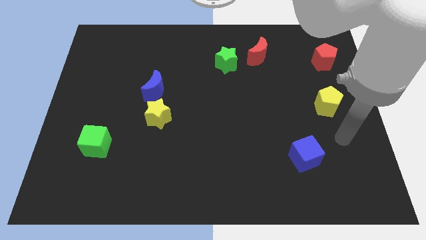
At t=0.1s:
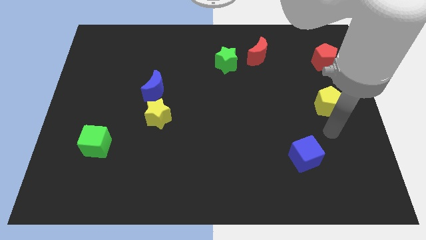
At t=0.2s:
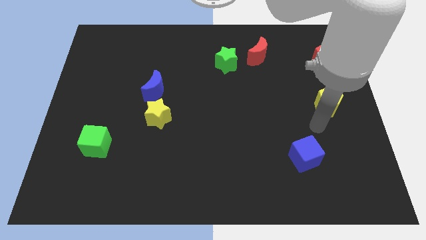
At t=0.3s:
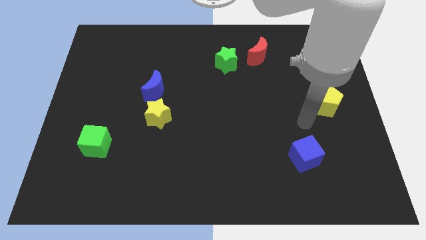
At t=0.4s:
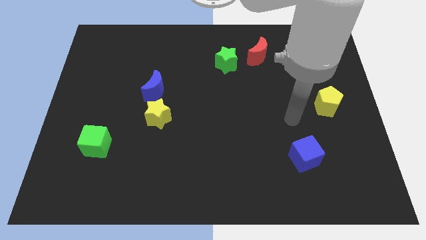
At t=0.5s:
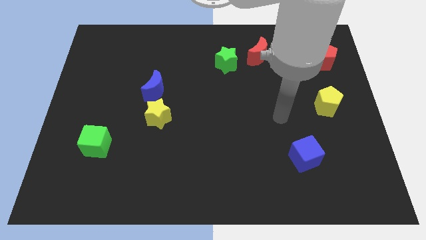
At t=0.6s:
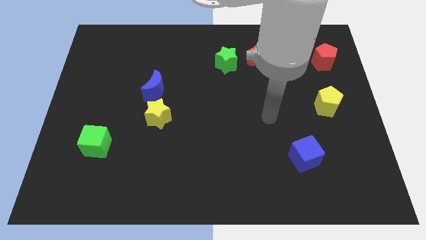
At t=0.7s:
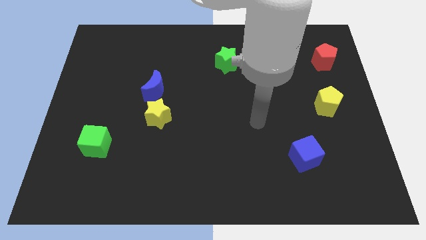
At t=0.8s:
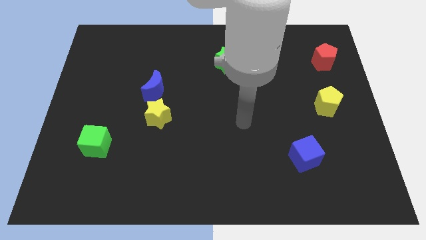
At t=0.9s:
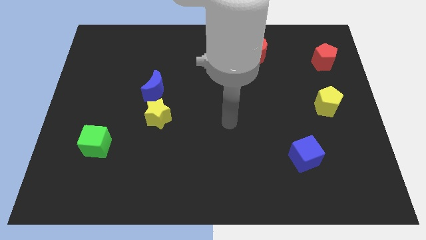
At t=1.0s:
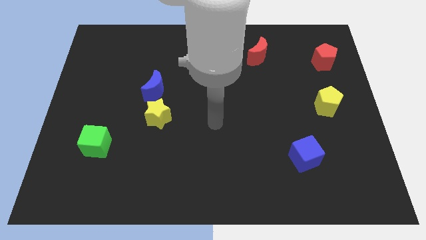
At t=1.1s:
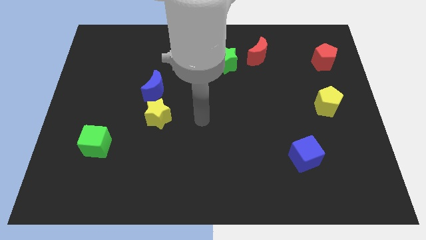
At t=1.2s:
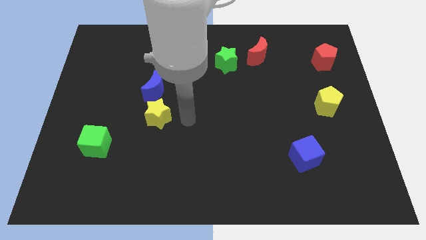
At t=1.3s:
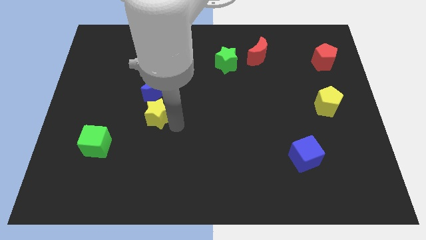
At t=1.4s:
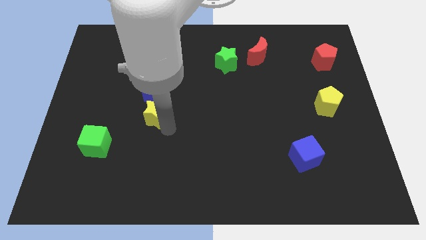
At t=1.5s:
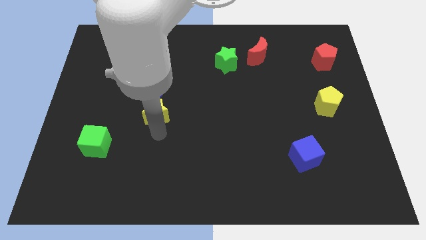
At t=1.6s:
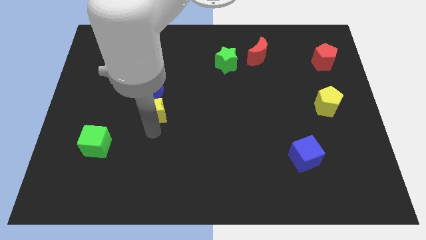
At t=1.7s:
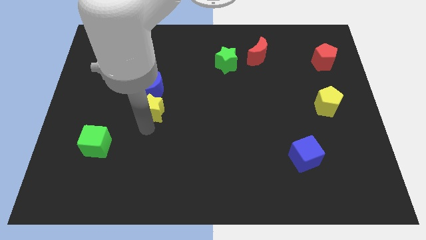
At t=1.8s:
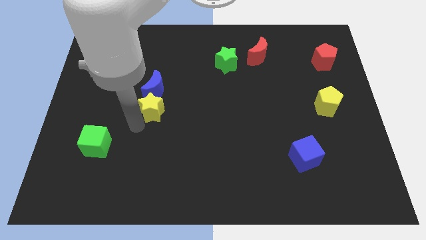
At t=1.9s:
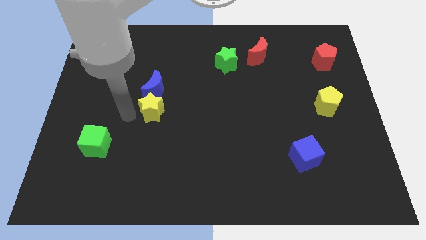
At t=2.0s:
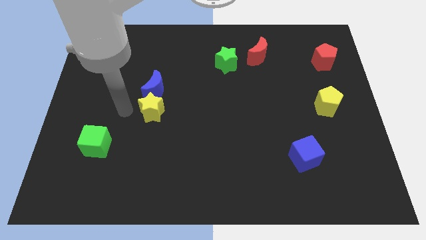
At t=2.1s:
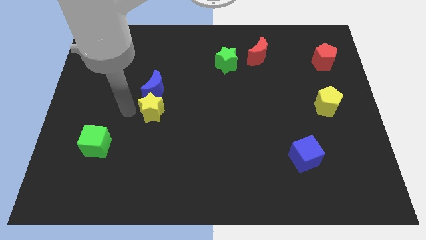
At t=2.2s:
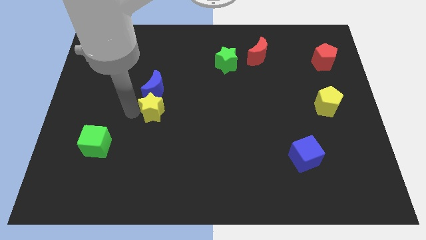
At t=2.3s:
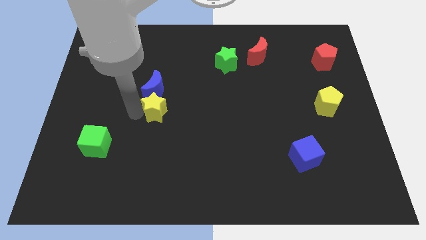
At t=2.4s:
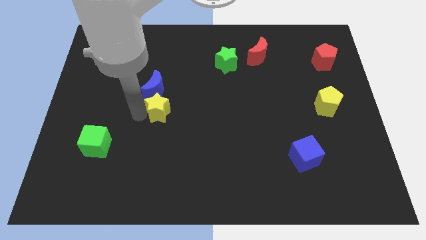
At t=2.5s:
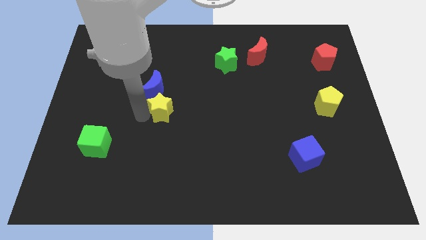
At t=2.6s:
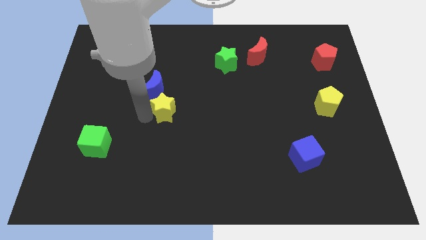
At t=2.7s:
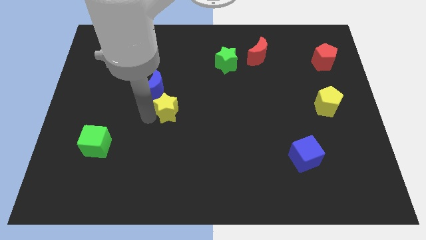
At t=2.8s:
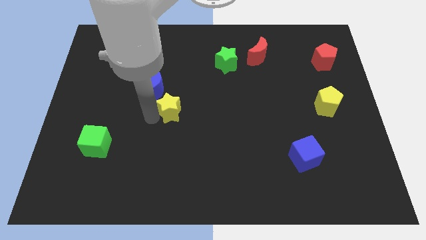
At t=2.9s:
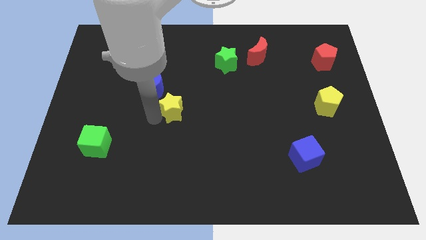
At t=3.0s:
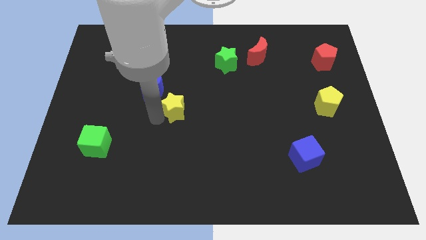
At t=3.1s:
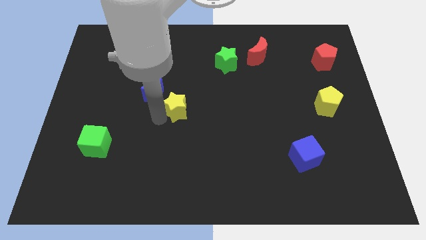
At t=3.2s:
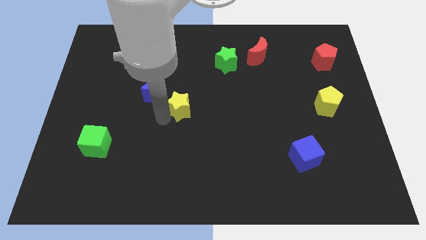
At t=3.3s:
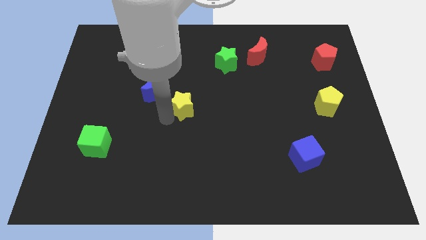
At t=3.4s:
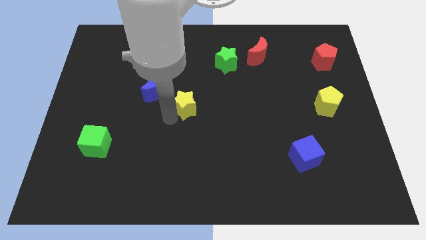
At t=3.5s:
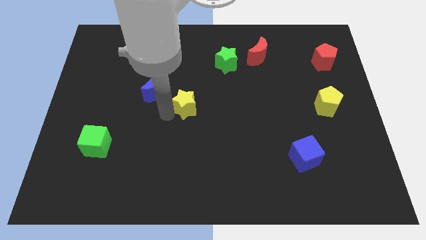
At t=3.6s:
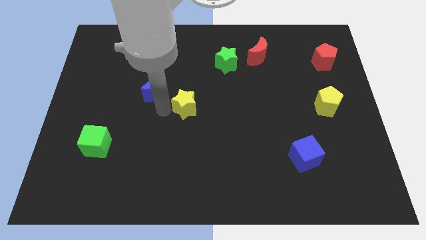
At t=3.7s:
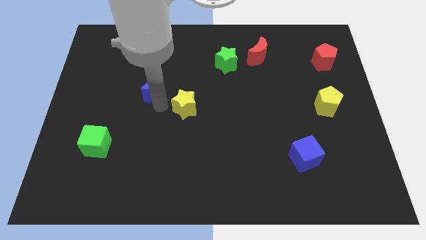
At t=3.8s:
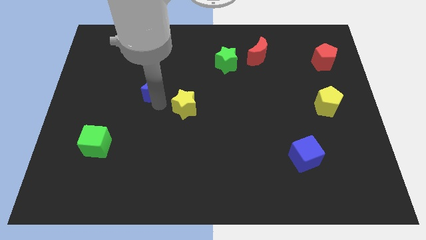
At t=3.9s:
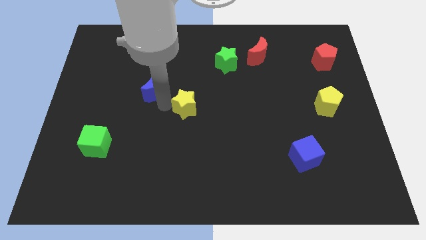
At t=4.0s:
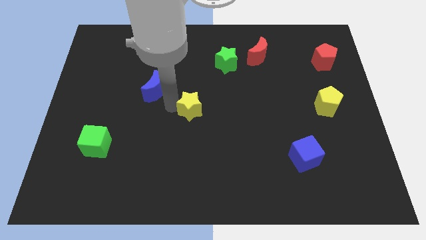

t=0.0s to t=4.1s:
move the yellow star a little to the right

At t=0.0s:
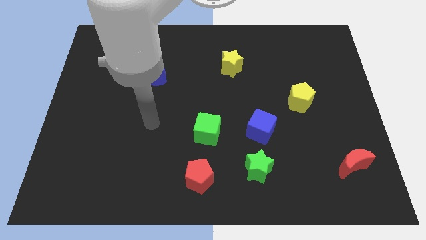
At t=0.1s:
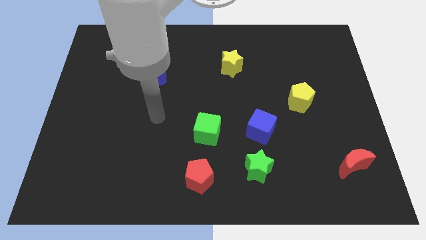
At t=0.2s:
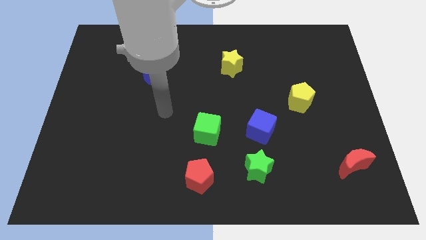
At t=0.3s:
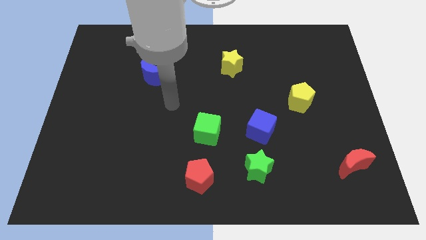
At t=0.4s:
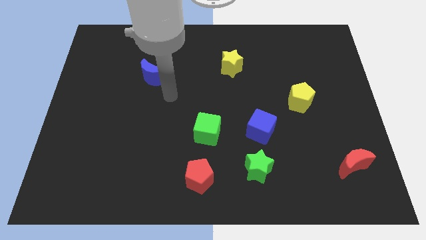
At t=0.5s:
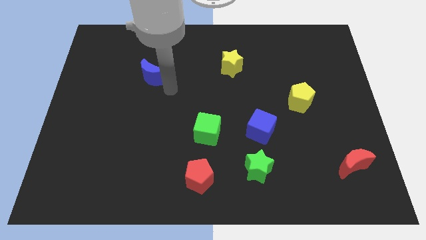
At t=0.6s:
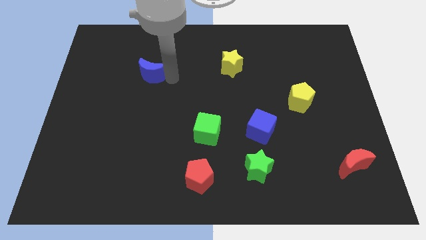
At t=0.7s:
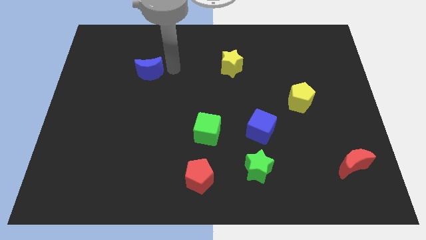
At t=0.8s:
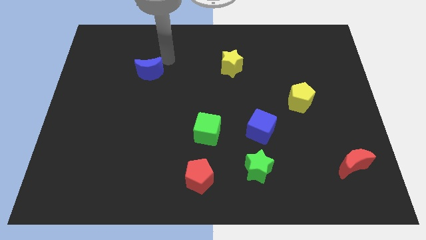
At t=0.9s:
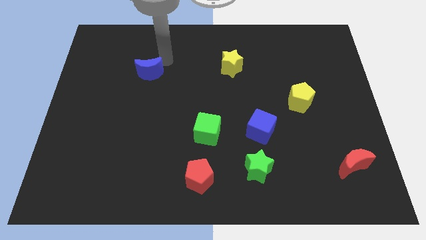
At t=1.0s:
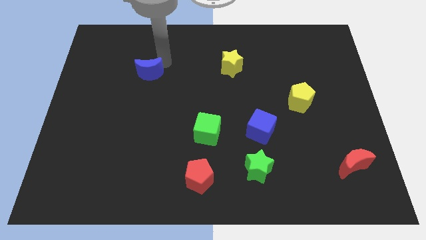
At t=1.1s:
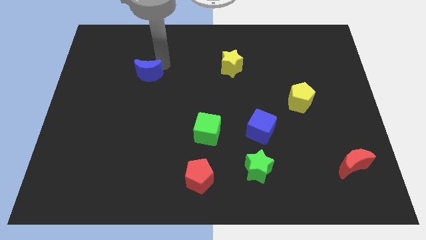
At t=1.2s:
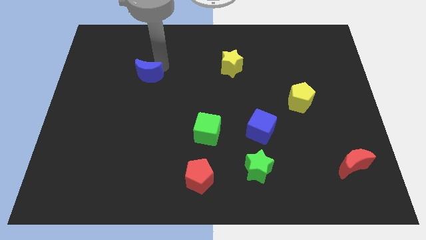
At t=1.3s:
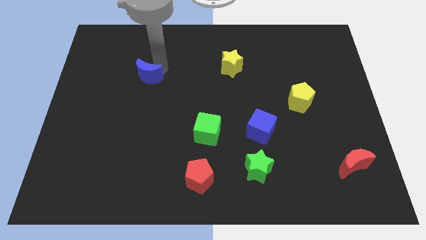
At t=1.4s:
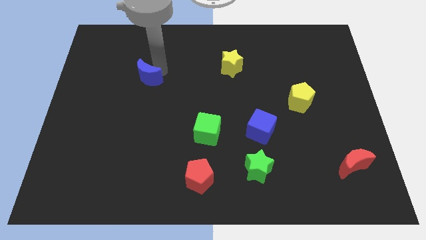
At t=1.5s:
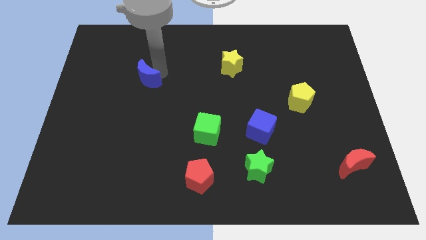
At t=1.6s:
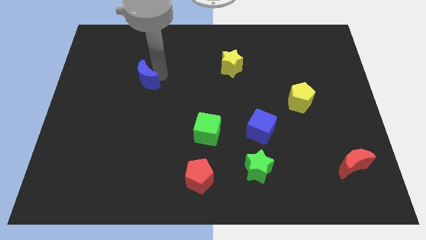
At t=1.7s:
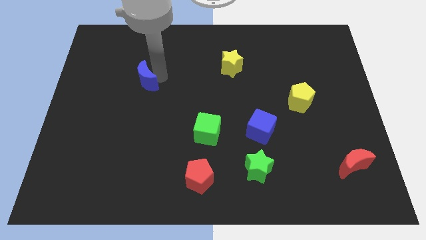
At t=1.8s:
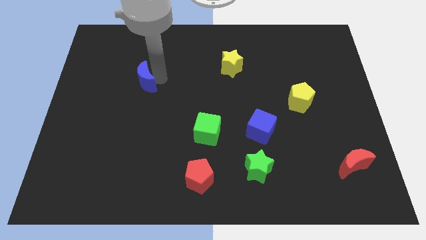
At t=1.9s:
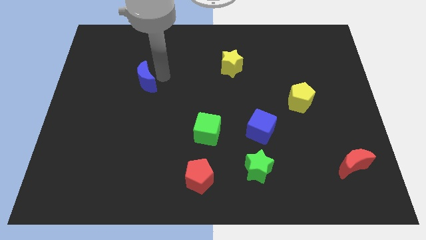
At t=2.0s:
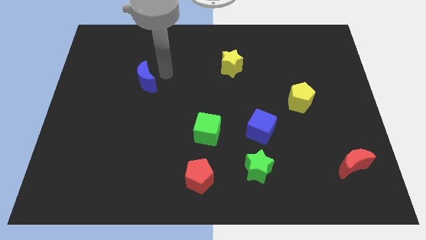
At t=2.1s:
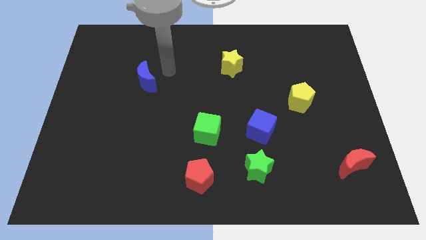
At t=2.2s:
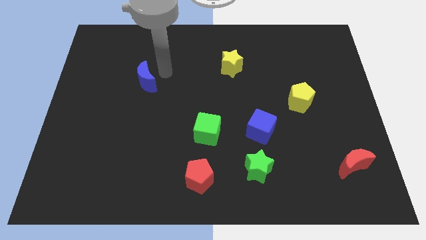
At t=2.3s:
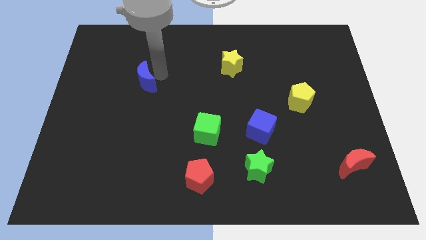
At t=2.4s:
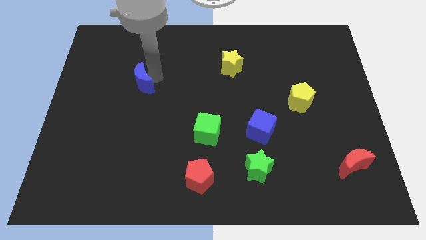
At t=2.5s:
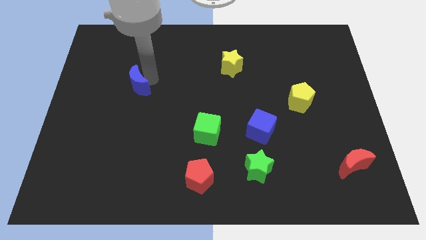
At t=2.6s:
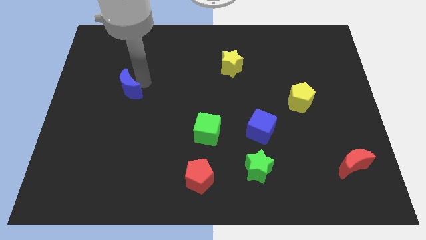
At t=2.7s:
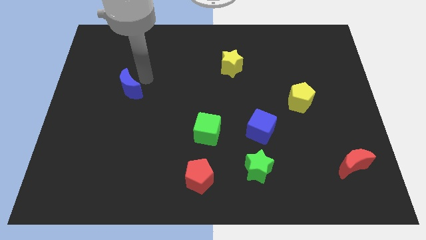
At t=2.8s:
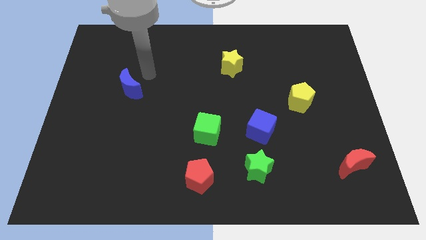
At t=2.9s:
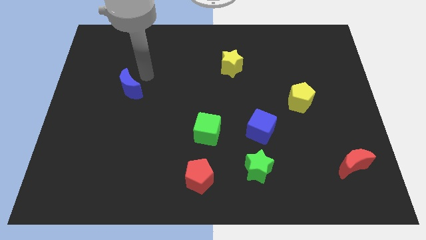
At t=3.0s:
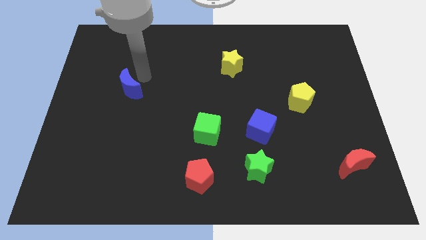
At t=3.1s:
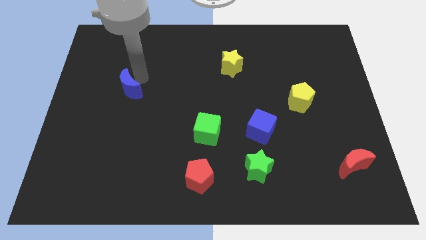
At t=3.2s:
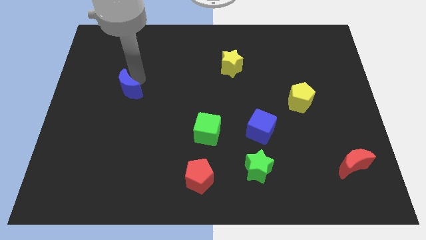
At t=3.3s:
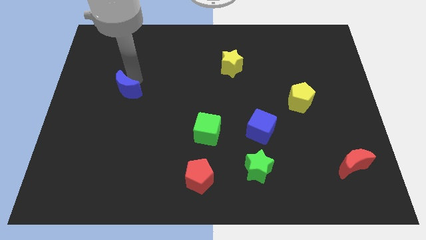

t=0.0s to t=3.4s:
slightly push the blue moon diagonally down and left

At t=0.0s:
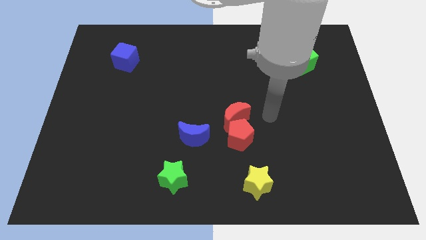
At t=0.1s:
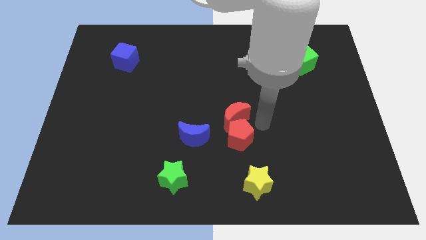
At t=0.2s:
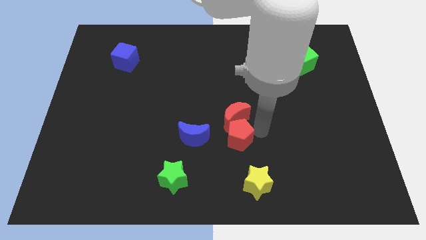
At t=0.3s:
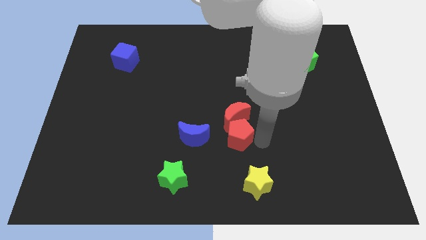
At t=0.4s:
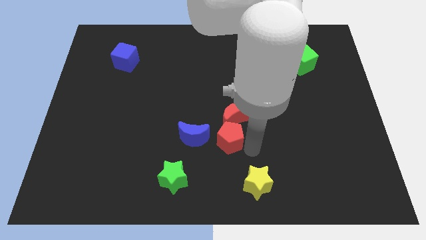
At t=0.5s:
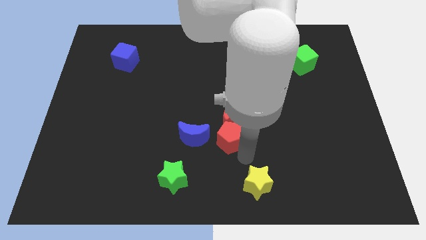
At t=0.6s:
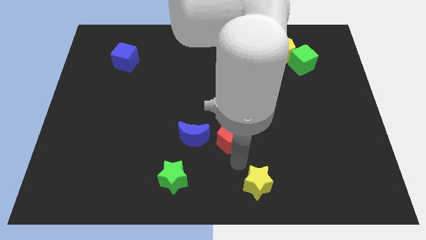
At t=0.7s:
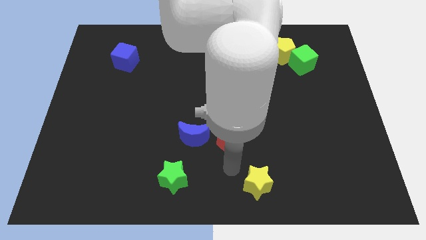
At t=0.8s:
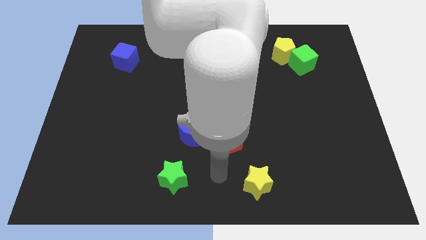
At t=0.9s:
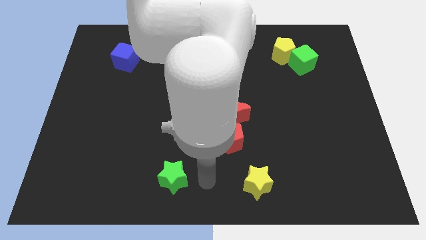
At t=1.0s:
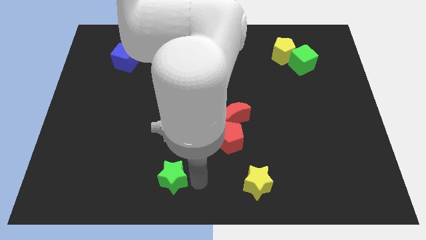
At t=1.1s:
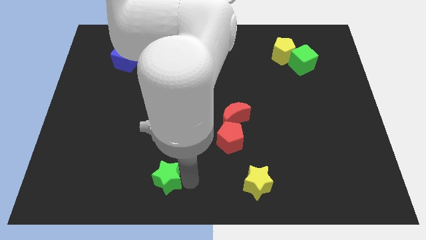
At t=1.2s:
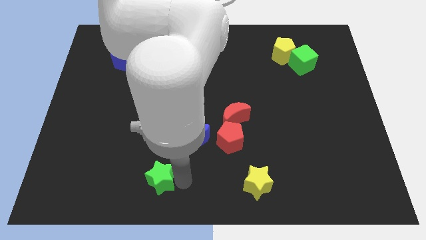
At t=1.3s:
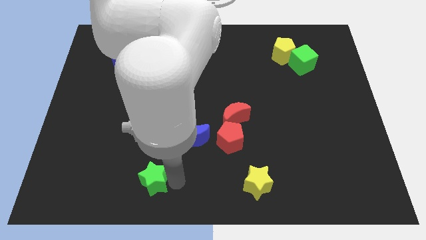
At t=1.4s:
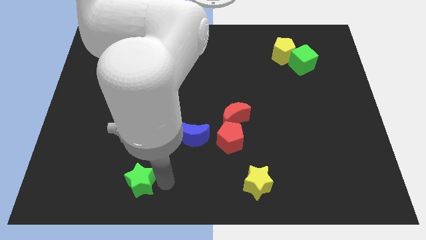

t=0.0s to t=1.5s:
push the green star slightly to the left
